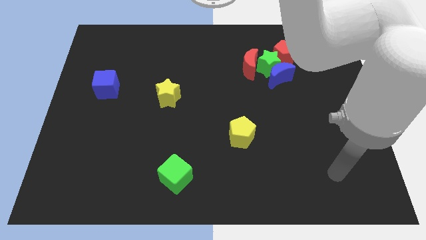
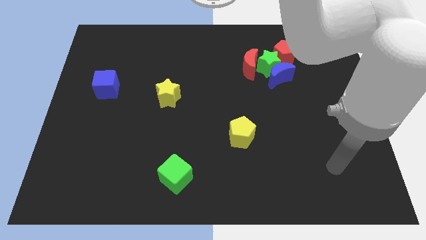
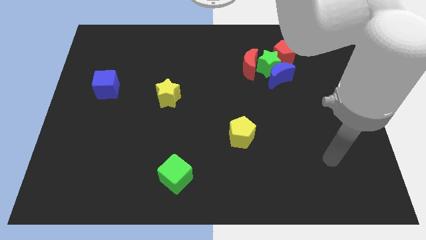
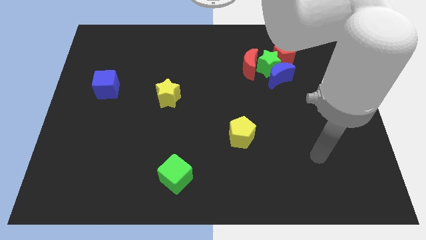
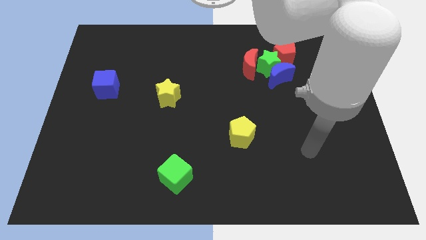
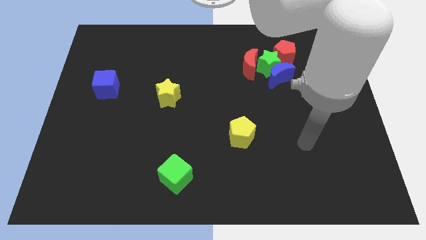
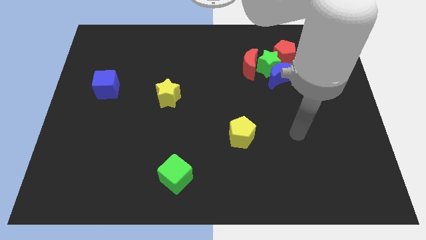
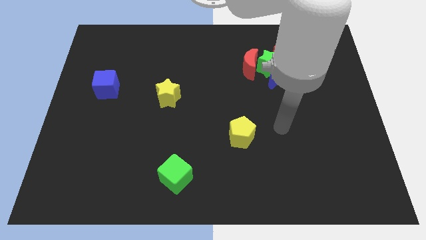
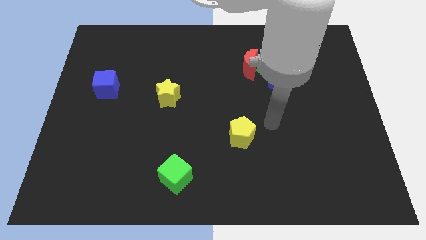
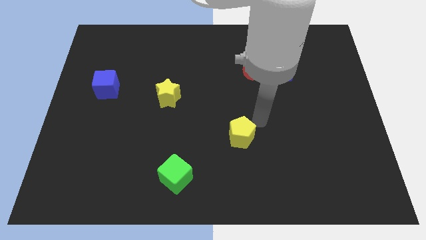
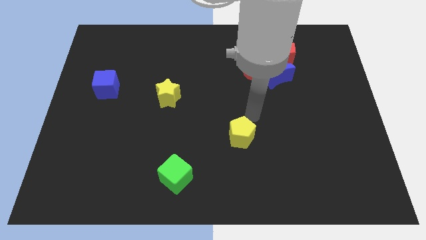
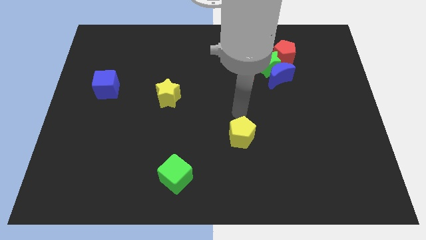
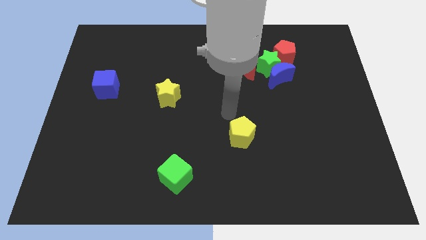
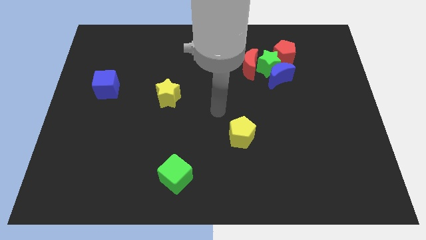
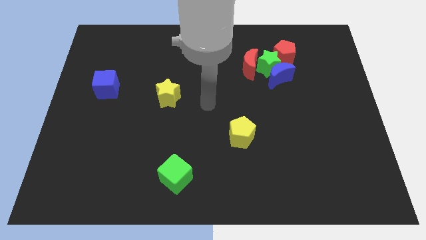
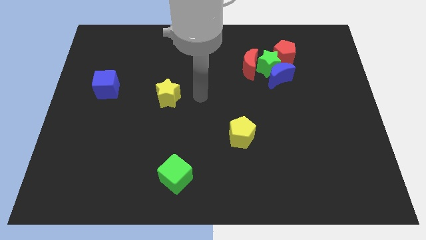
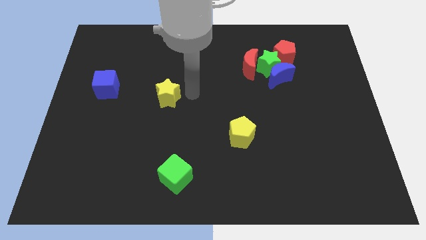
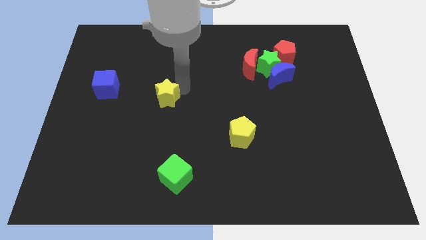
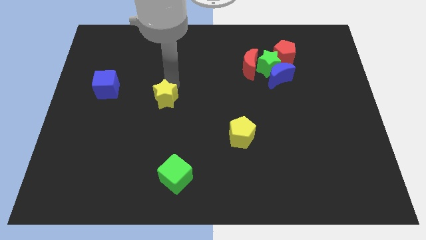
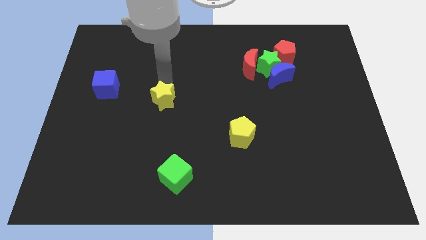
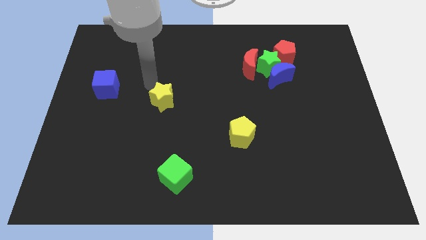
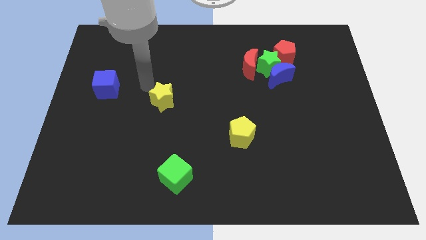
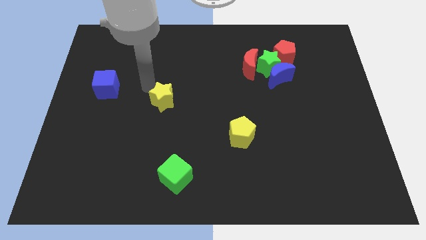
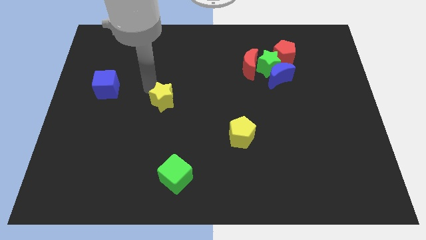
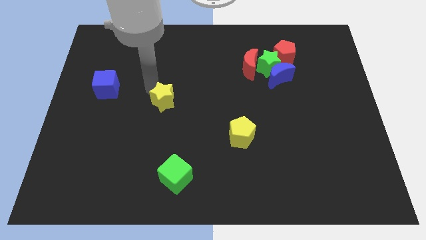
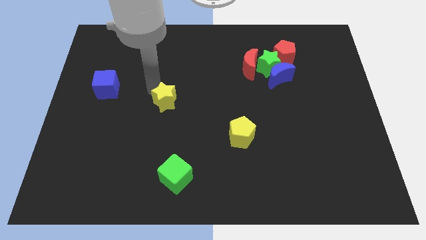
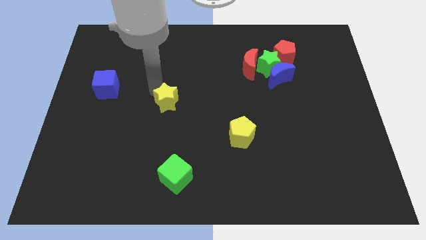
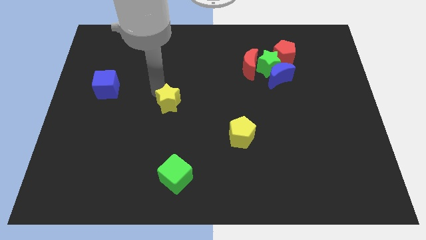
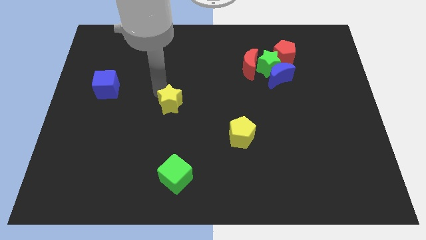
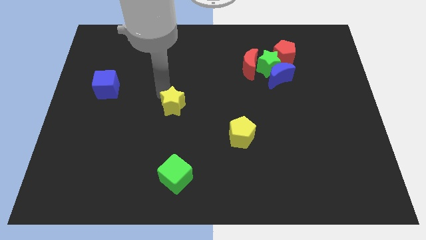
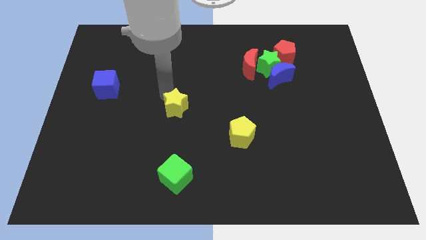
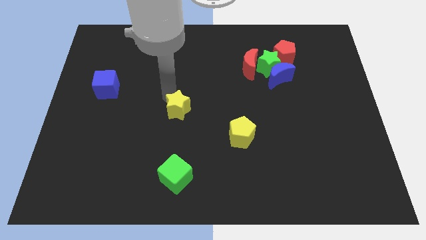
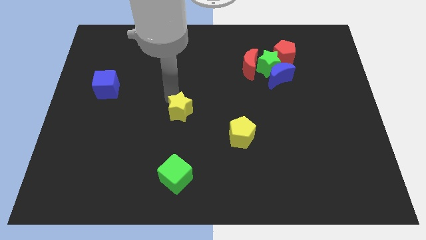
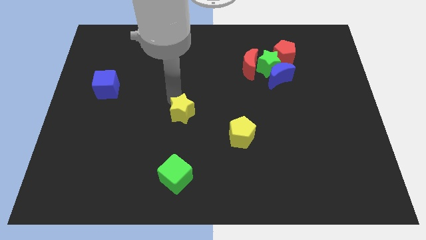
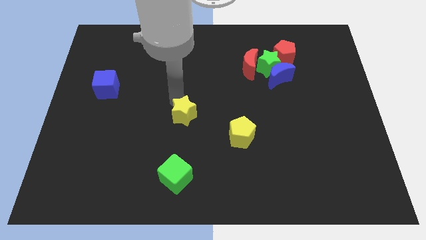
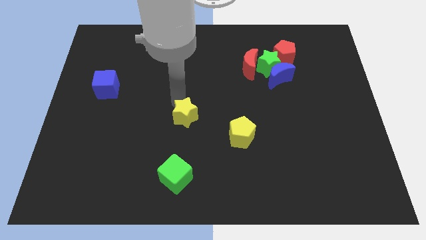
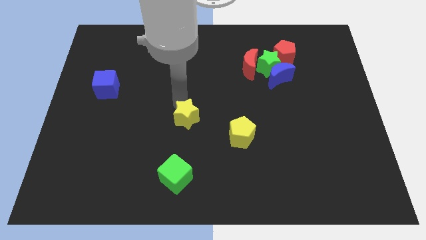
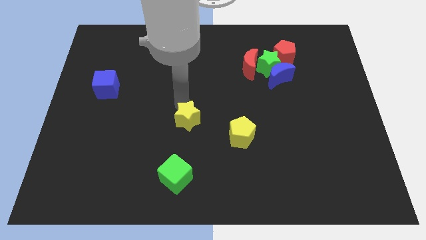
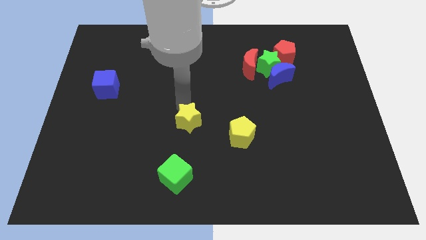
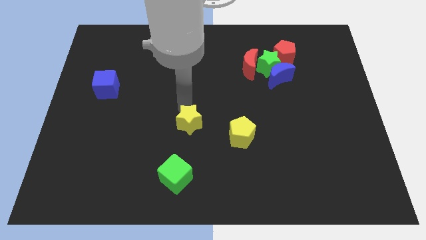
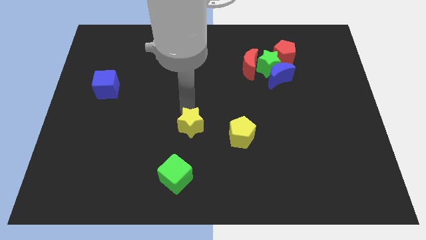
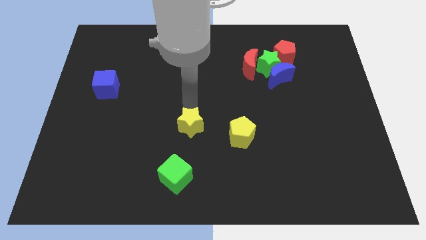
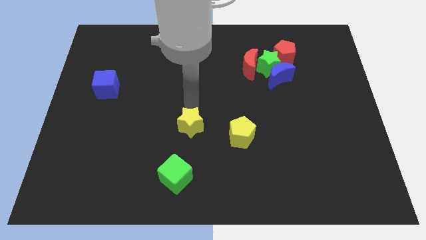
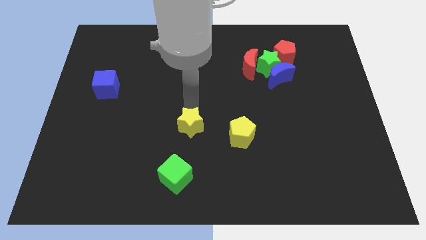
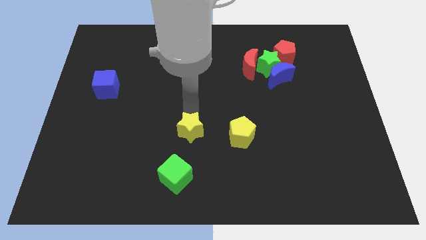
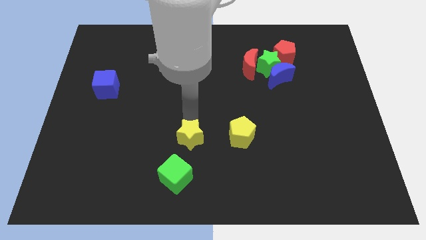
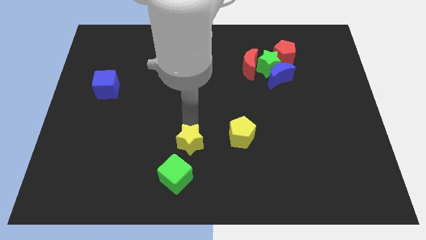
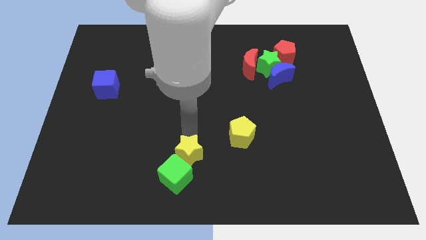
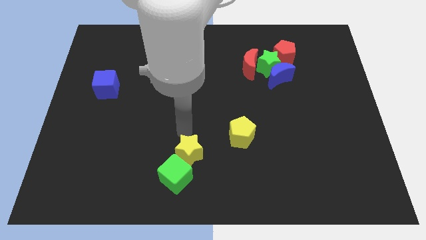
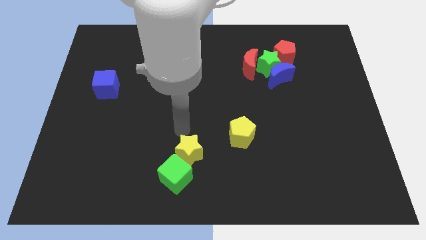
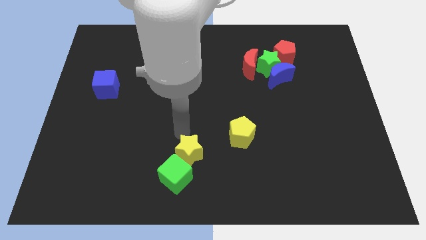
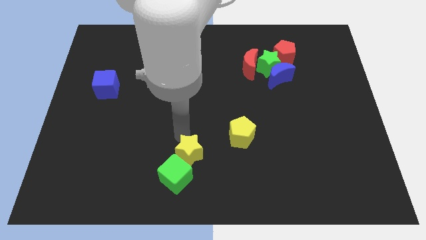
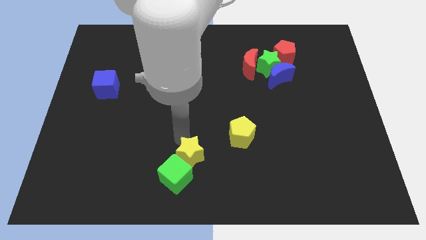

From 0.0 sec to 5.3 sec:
slide the yellow star to the bottom

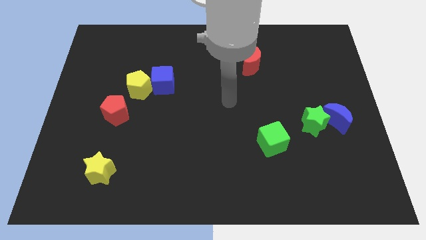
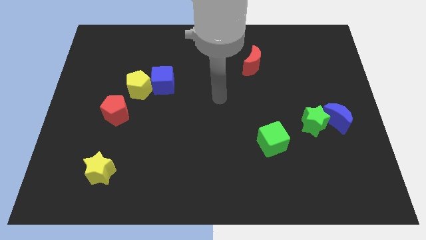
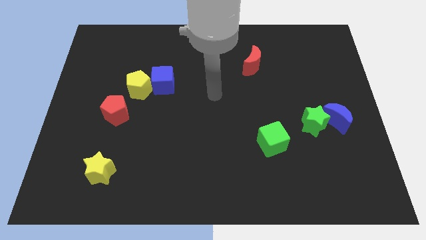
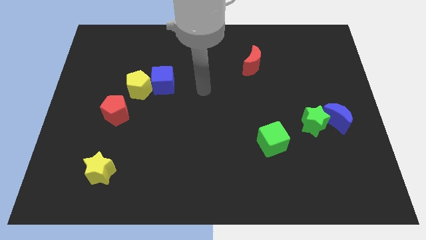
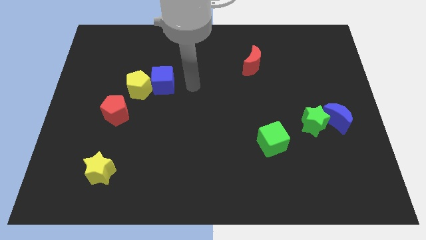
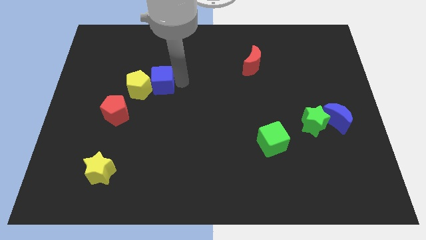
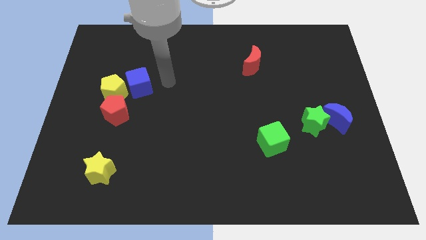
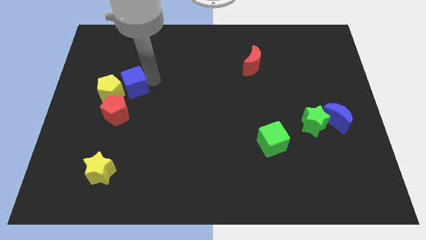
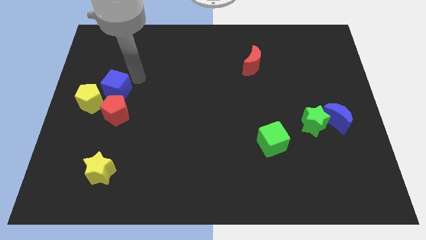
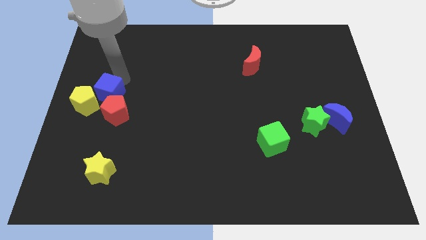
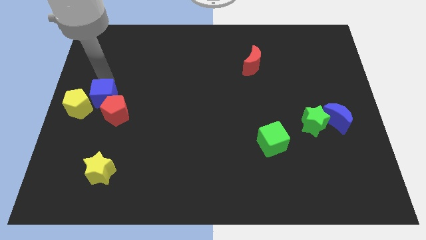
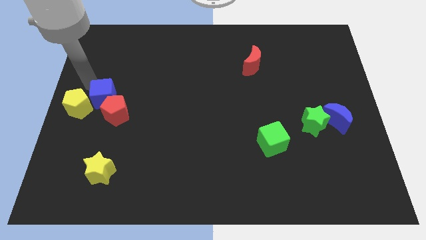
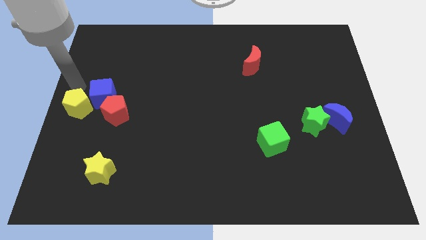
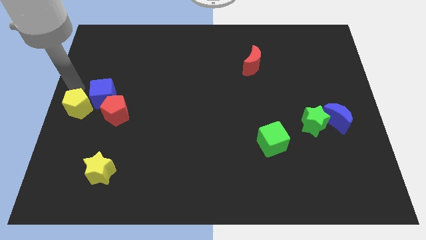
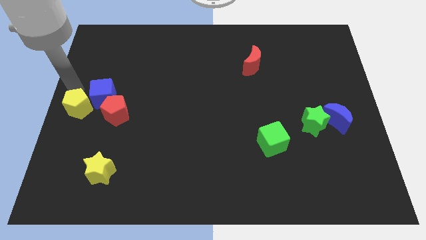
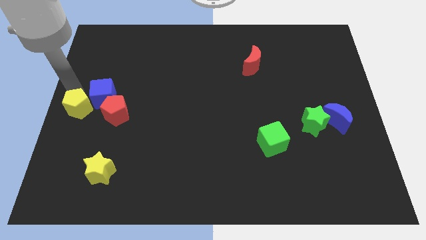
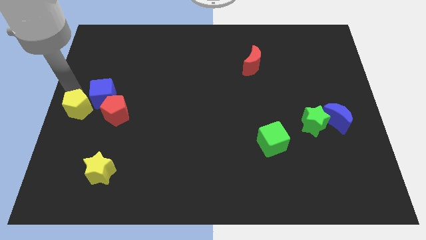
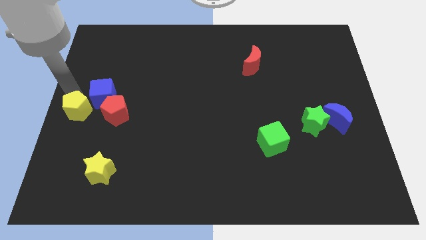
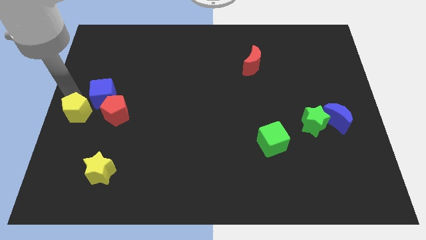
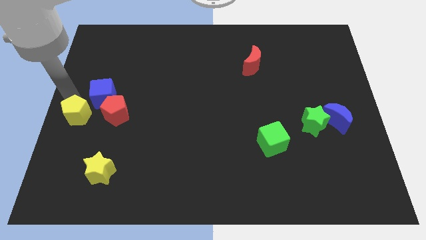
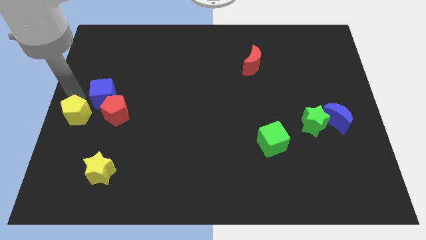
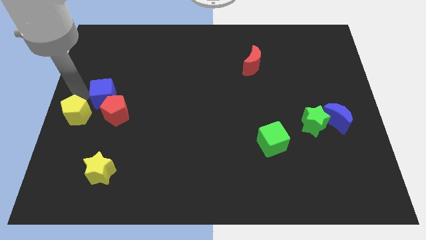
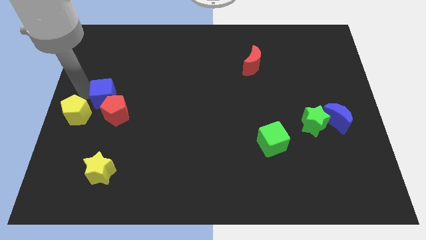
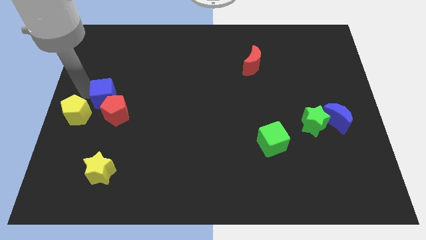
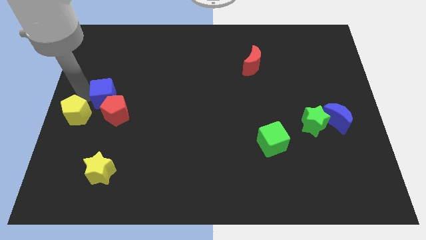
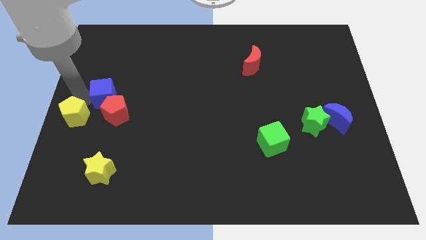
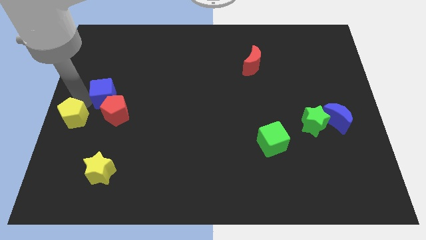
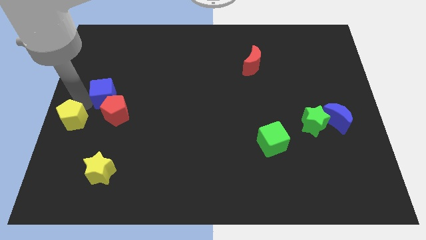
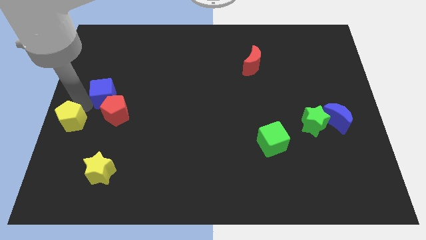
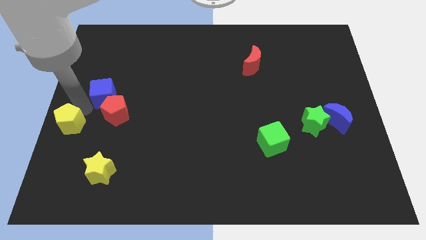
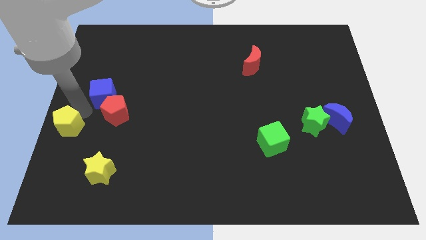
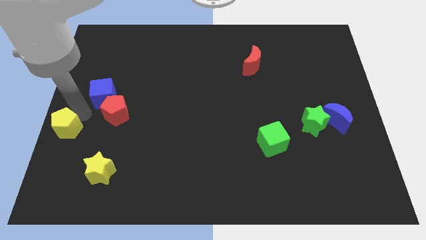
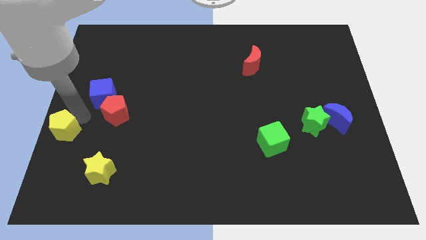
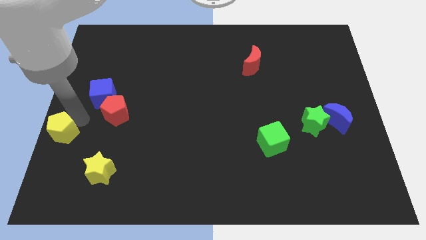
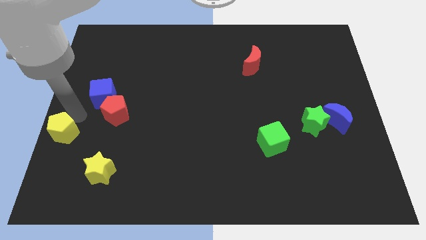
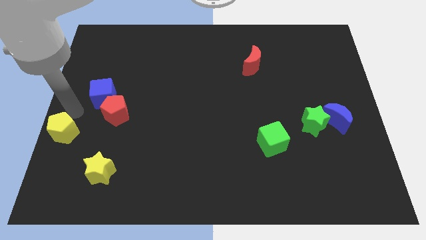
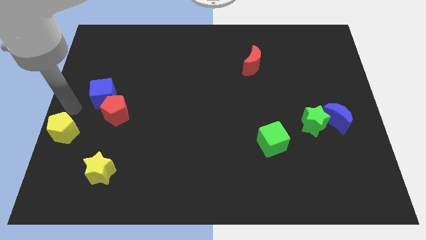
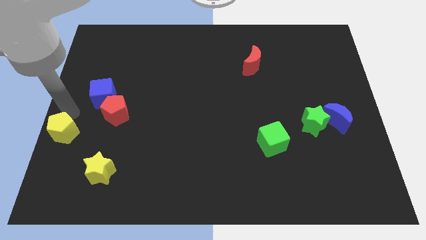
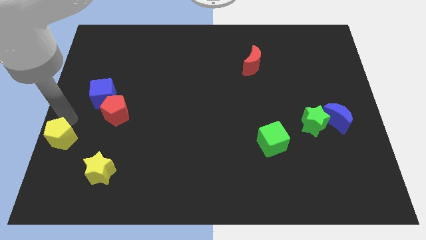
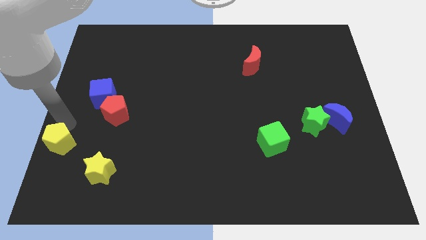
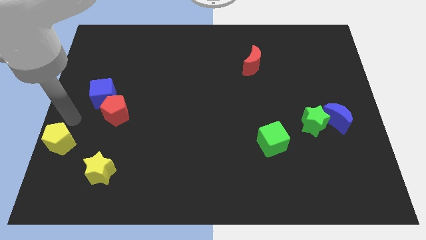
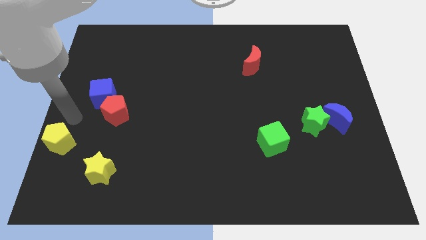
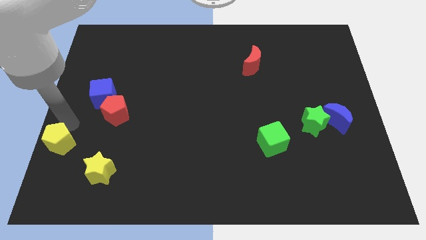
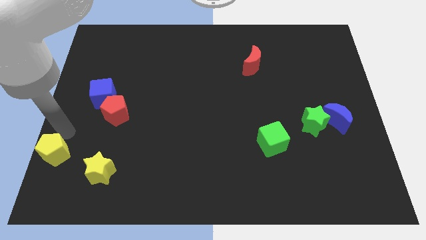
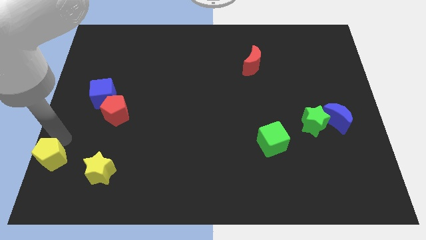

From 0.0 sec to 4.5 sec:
put the yellow pentagon to the bottom left
